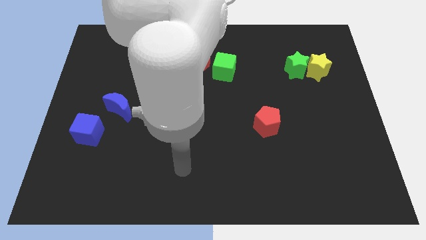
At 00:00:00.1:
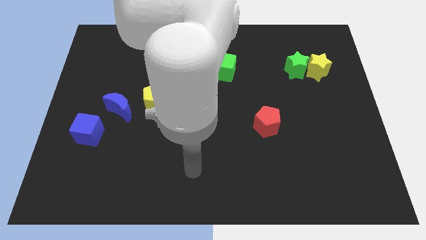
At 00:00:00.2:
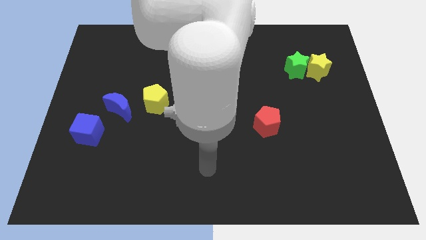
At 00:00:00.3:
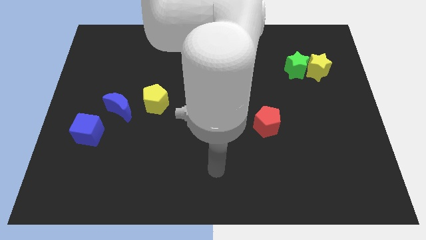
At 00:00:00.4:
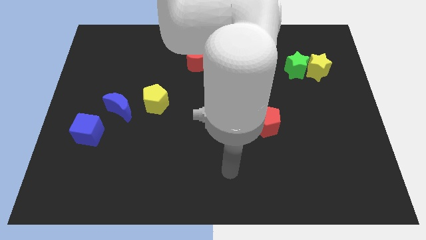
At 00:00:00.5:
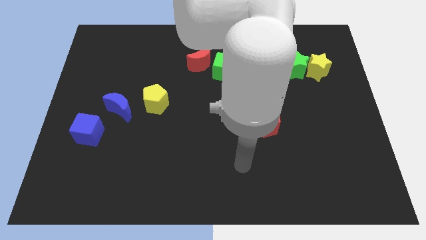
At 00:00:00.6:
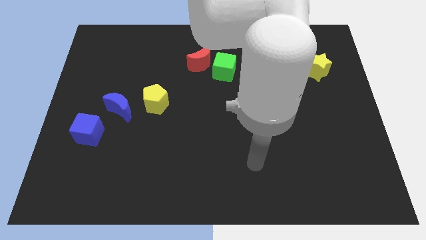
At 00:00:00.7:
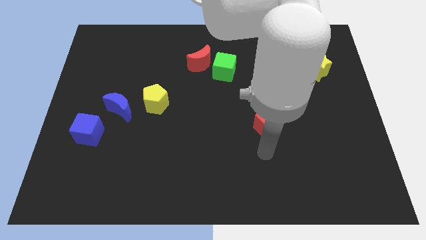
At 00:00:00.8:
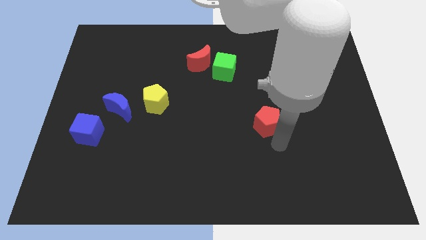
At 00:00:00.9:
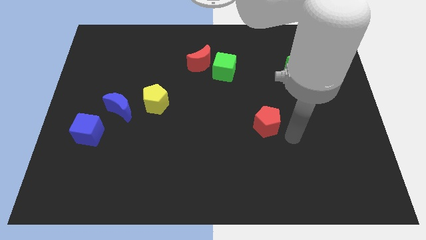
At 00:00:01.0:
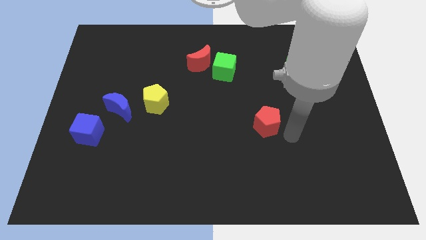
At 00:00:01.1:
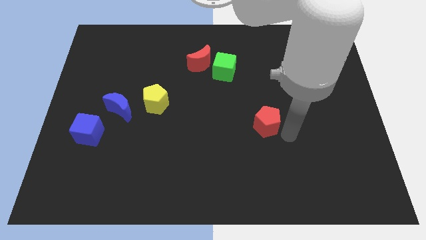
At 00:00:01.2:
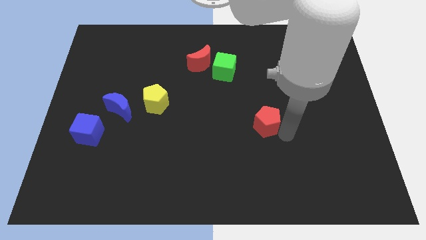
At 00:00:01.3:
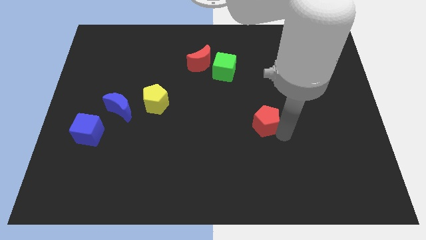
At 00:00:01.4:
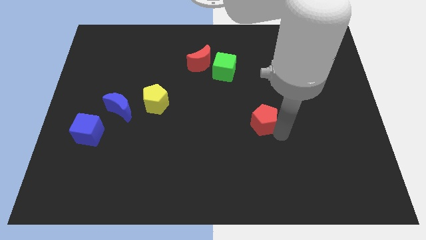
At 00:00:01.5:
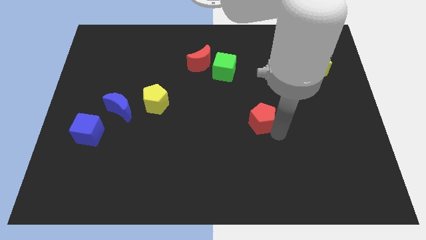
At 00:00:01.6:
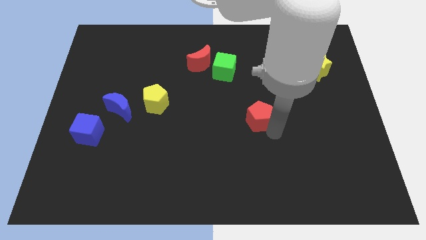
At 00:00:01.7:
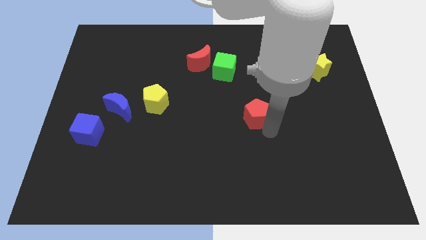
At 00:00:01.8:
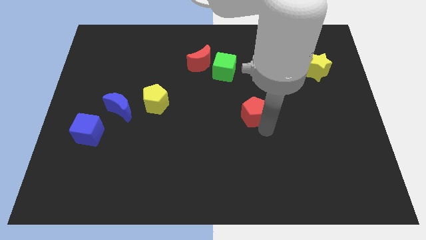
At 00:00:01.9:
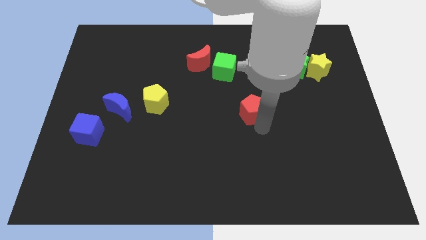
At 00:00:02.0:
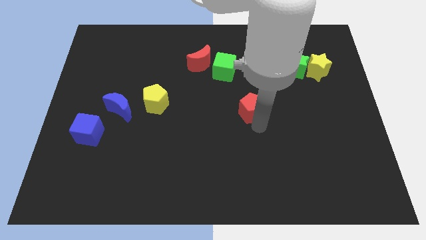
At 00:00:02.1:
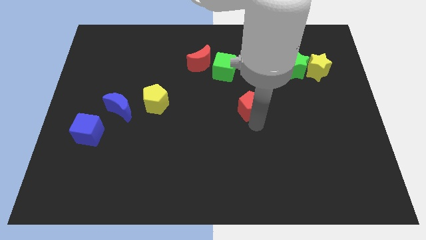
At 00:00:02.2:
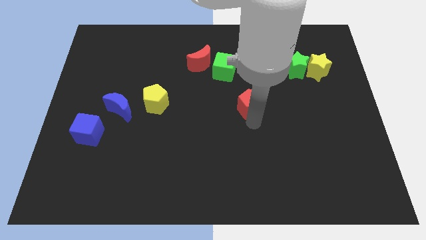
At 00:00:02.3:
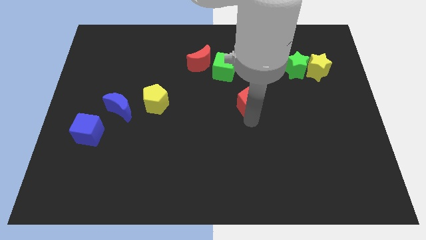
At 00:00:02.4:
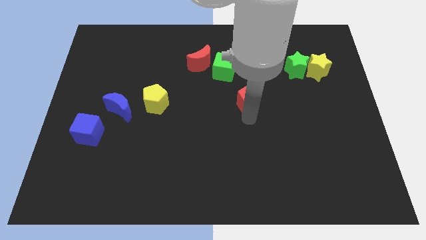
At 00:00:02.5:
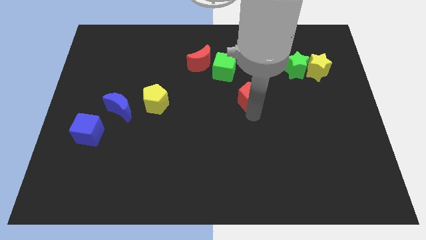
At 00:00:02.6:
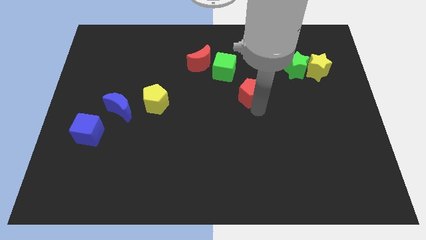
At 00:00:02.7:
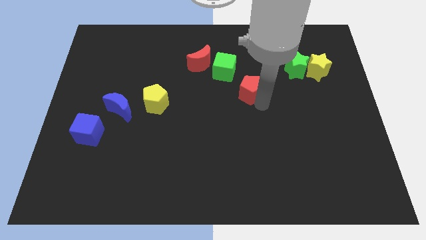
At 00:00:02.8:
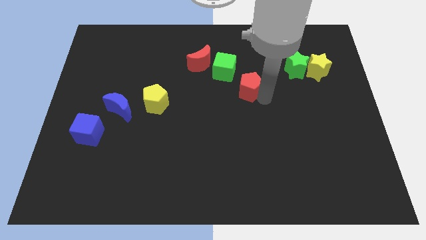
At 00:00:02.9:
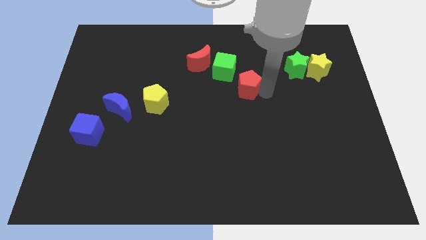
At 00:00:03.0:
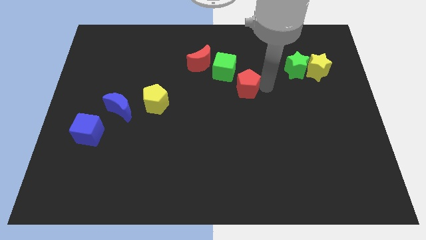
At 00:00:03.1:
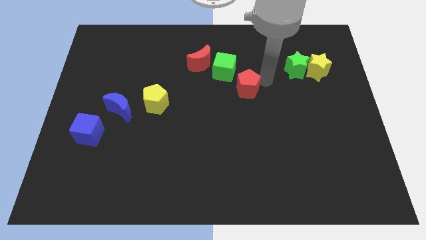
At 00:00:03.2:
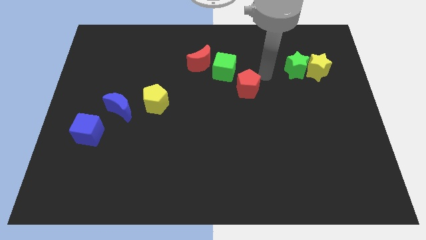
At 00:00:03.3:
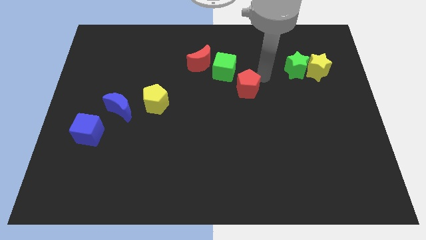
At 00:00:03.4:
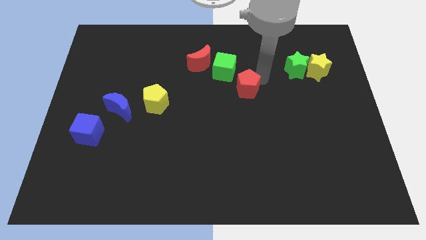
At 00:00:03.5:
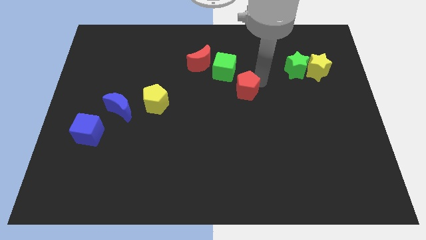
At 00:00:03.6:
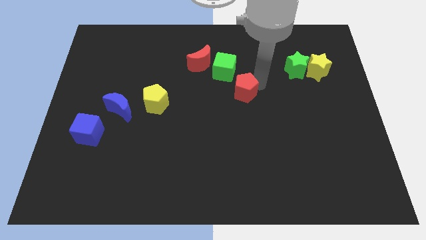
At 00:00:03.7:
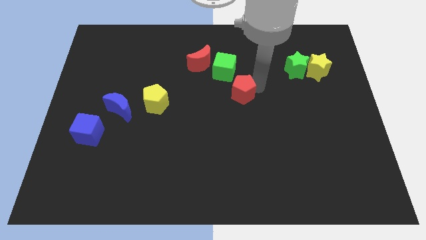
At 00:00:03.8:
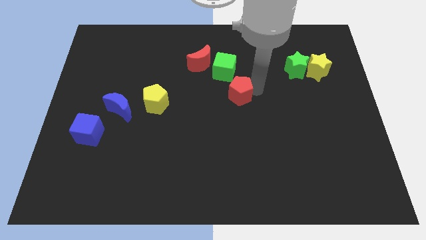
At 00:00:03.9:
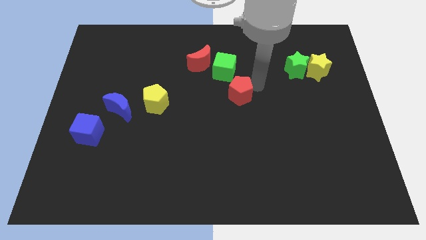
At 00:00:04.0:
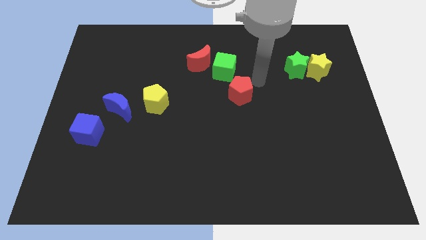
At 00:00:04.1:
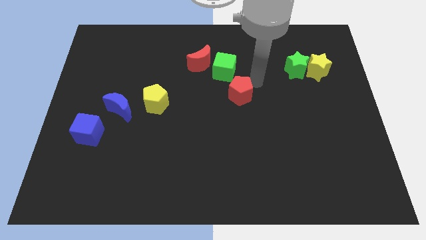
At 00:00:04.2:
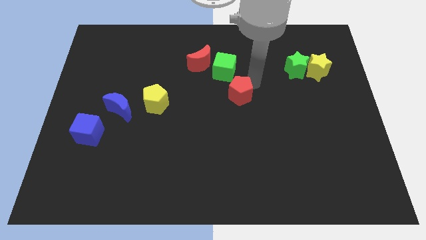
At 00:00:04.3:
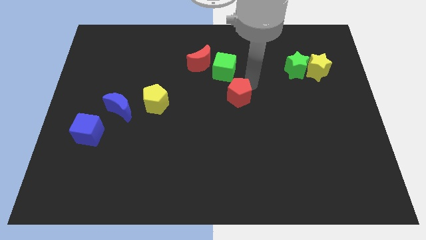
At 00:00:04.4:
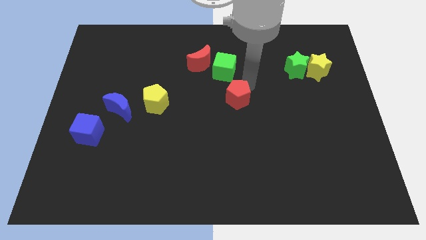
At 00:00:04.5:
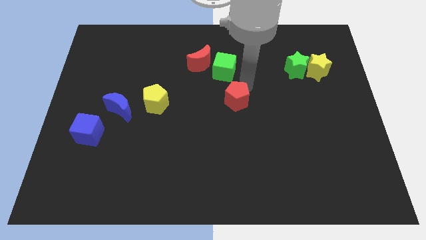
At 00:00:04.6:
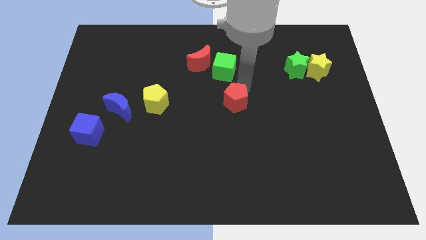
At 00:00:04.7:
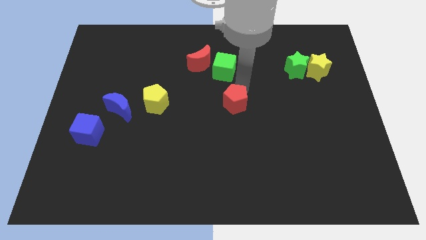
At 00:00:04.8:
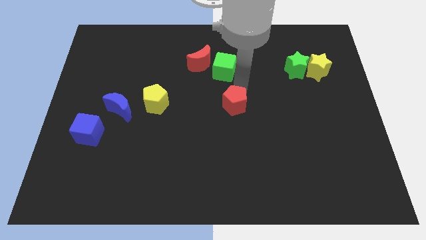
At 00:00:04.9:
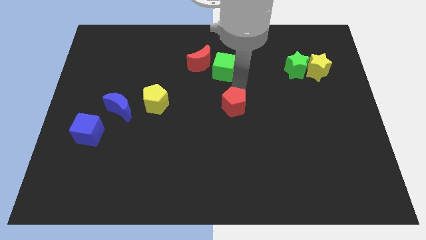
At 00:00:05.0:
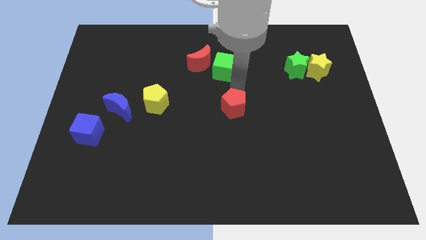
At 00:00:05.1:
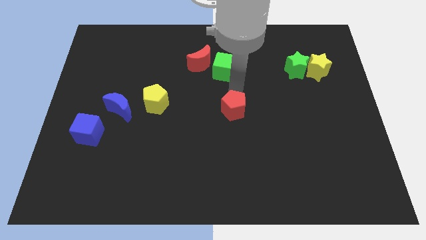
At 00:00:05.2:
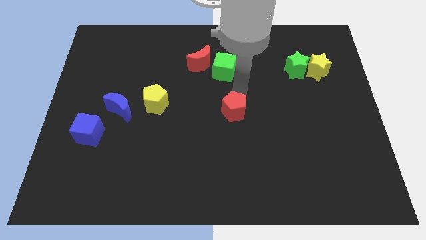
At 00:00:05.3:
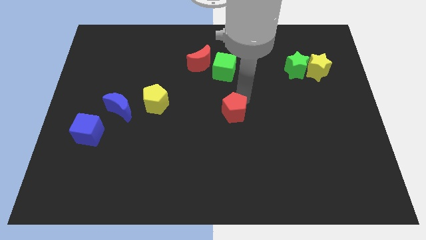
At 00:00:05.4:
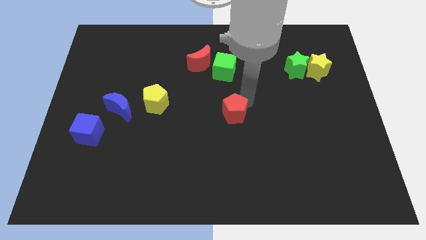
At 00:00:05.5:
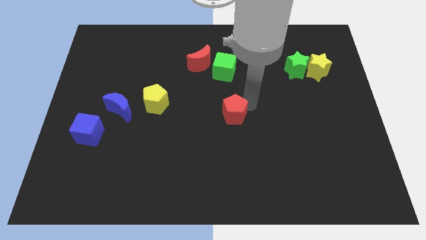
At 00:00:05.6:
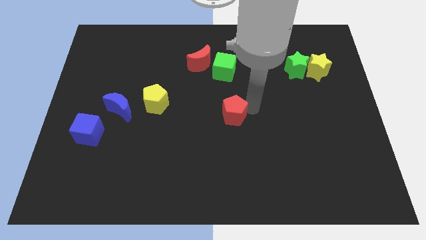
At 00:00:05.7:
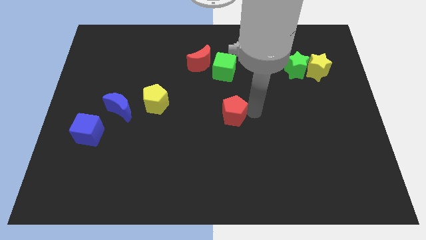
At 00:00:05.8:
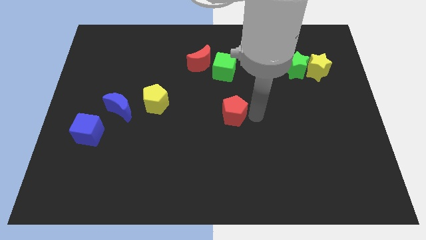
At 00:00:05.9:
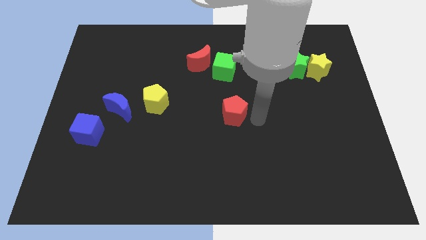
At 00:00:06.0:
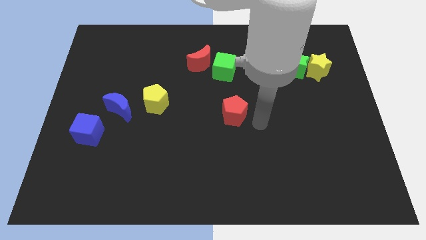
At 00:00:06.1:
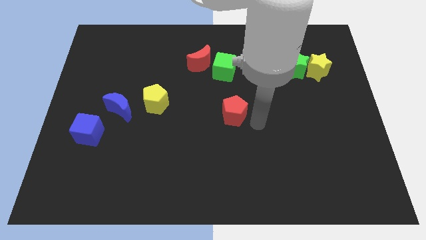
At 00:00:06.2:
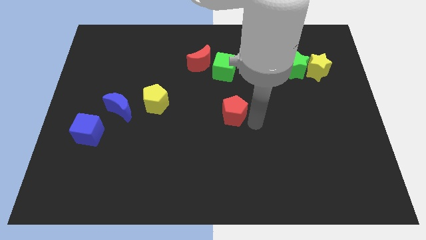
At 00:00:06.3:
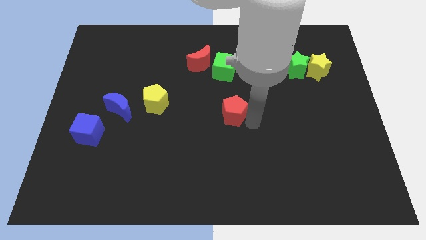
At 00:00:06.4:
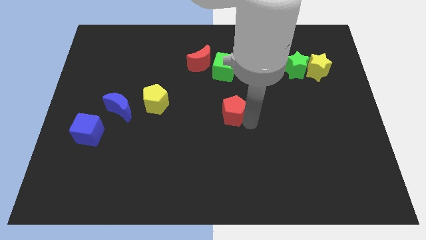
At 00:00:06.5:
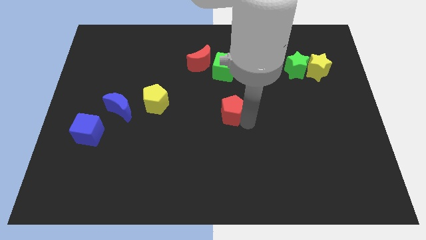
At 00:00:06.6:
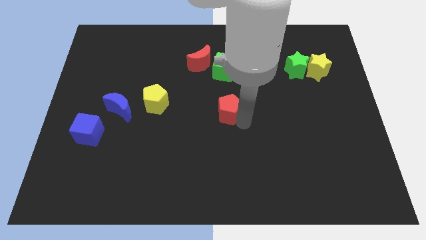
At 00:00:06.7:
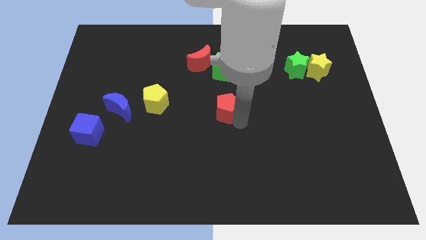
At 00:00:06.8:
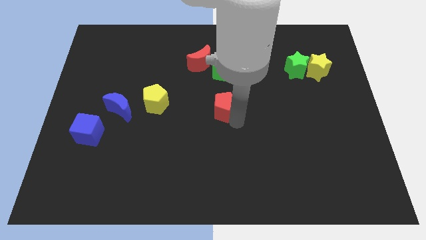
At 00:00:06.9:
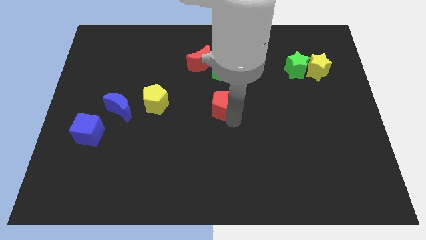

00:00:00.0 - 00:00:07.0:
move the red pentagon to the right of the yellow pentagon
